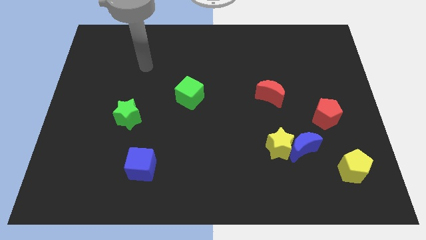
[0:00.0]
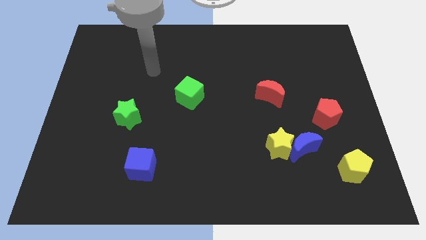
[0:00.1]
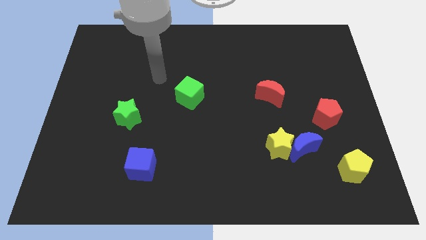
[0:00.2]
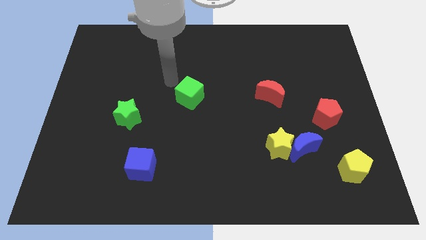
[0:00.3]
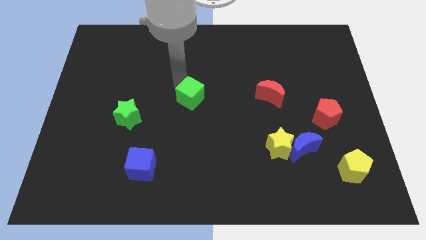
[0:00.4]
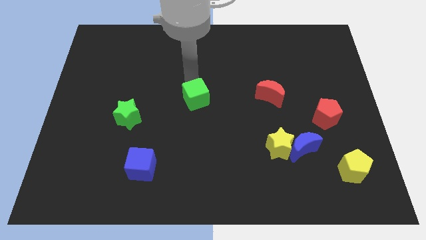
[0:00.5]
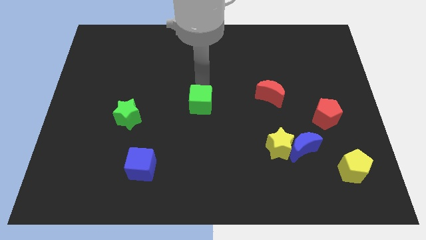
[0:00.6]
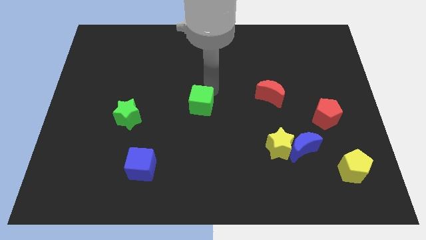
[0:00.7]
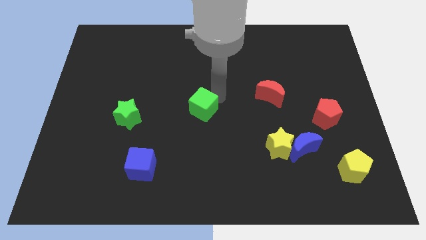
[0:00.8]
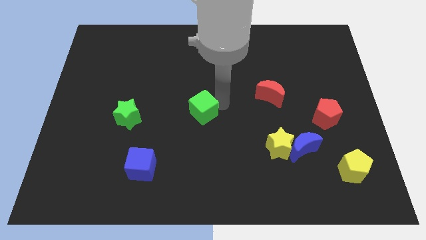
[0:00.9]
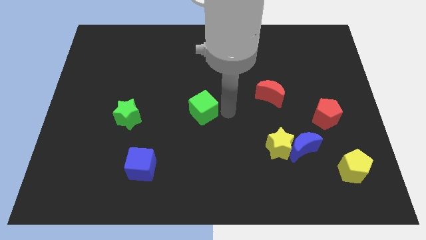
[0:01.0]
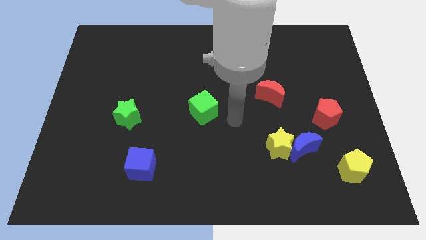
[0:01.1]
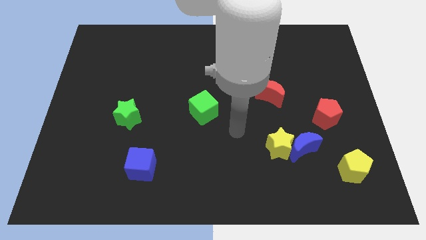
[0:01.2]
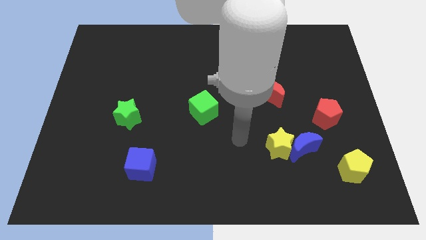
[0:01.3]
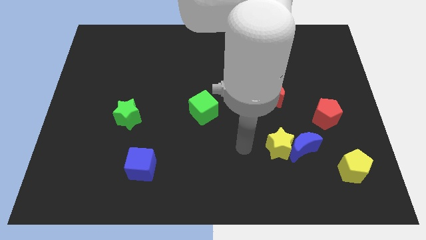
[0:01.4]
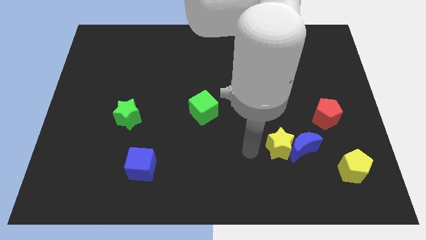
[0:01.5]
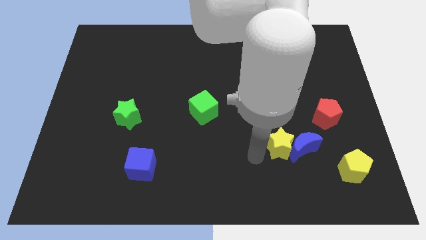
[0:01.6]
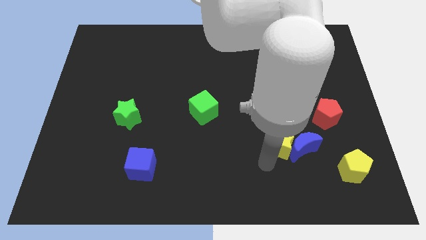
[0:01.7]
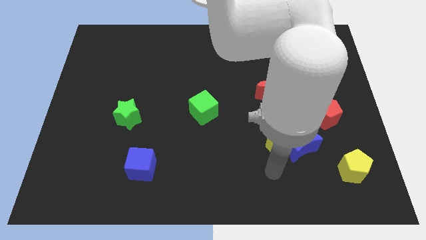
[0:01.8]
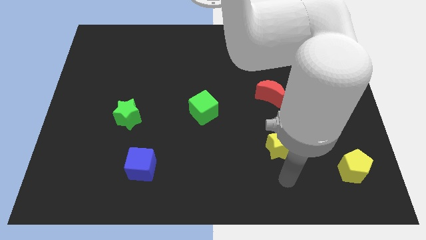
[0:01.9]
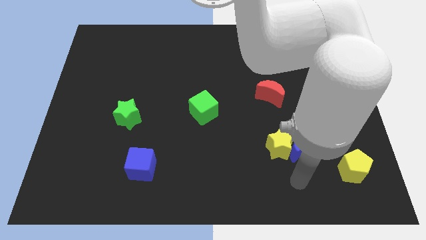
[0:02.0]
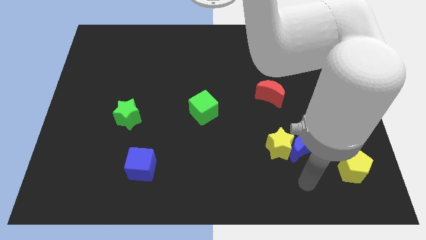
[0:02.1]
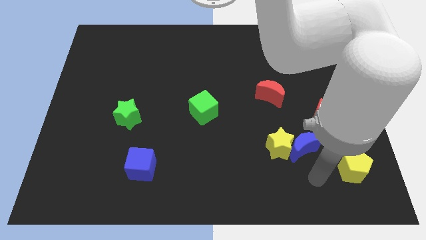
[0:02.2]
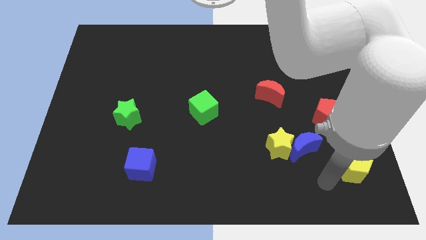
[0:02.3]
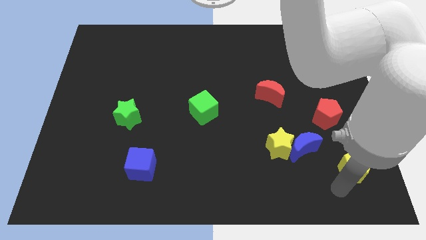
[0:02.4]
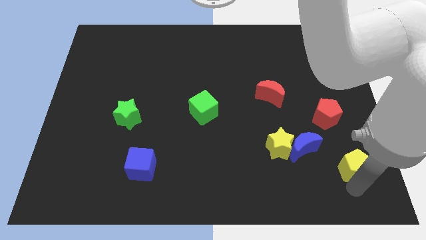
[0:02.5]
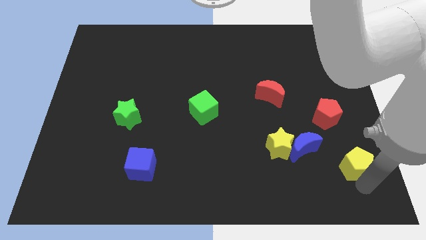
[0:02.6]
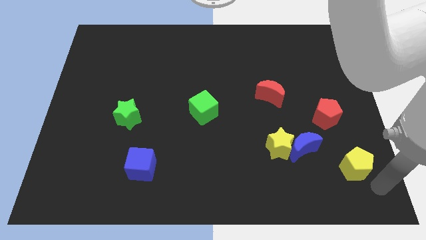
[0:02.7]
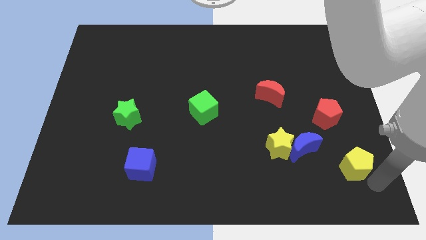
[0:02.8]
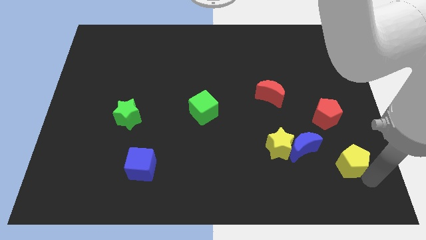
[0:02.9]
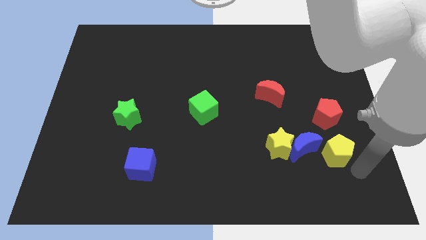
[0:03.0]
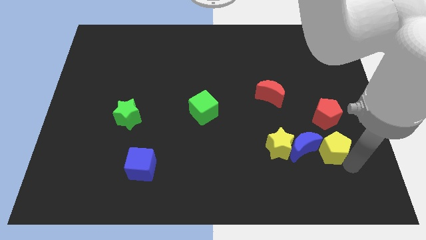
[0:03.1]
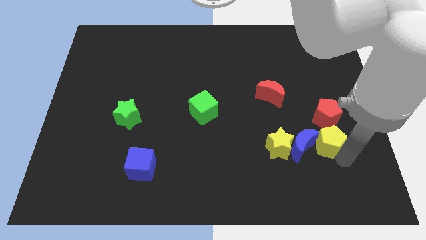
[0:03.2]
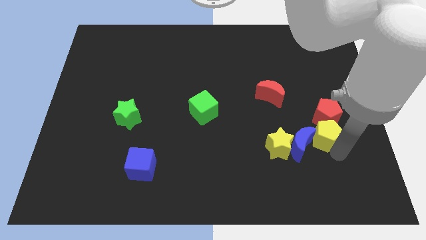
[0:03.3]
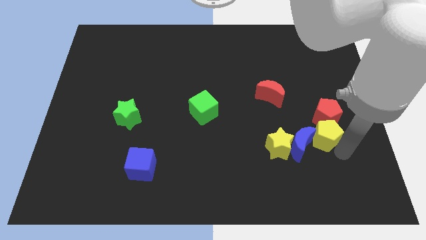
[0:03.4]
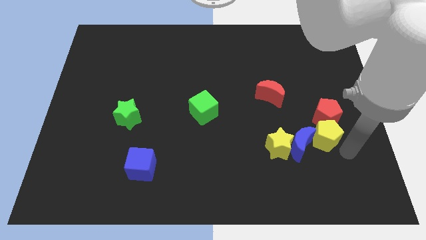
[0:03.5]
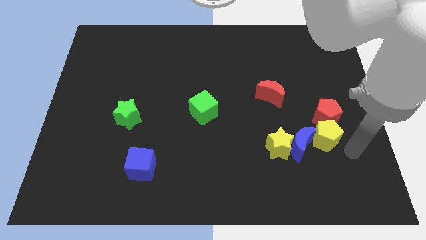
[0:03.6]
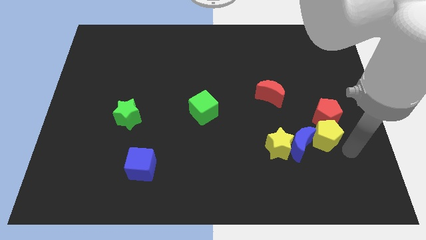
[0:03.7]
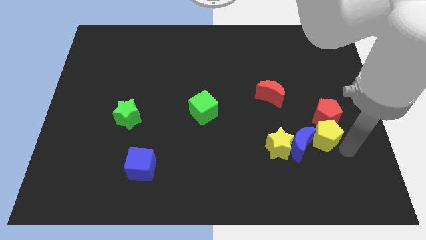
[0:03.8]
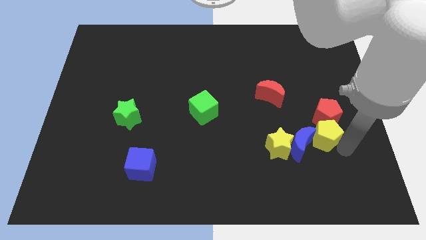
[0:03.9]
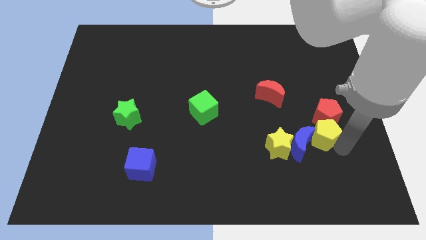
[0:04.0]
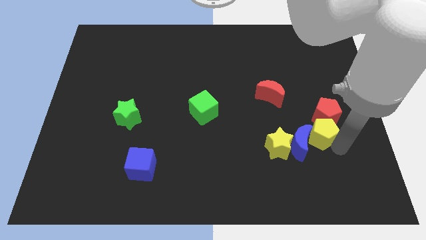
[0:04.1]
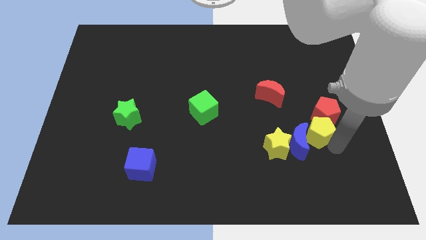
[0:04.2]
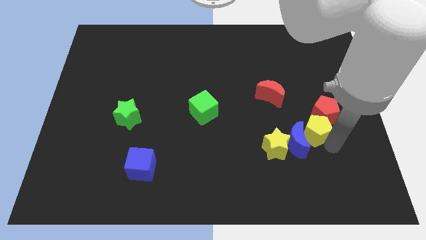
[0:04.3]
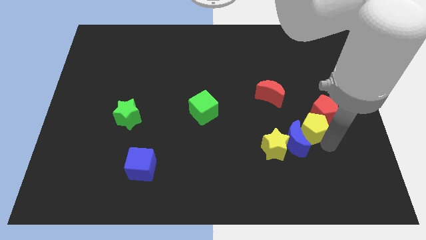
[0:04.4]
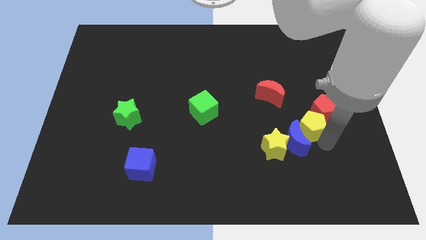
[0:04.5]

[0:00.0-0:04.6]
slide the yellow pentagon to the left side of the red pentagon

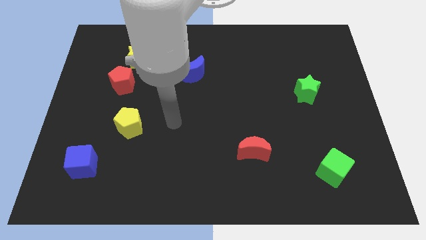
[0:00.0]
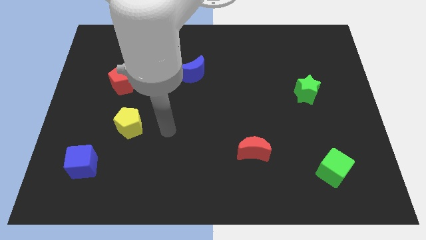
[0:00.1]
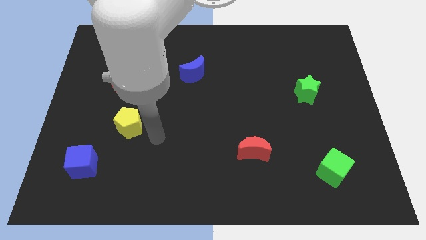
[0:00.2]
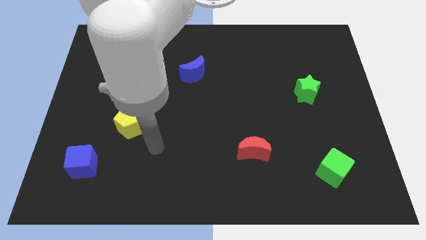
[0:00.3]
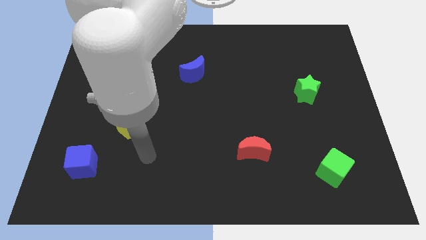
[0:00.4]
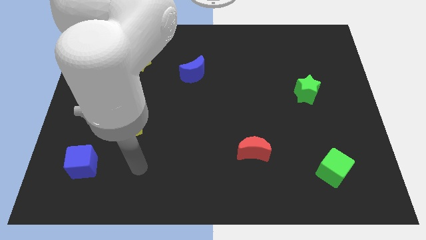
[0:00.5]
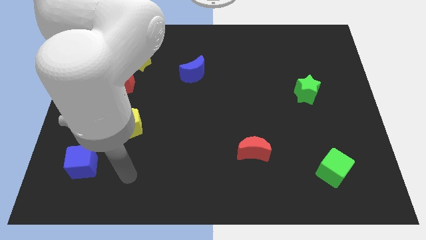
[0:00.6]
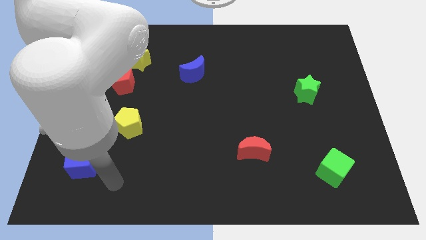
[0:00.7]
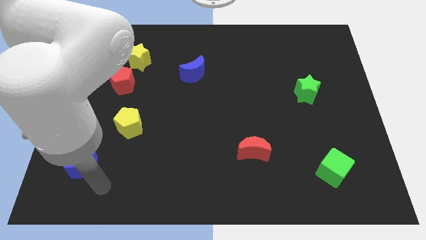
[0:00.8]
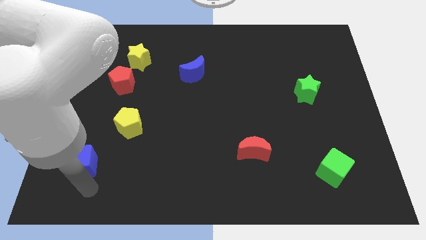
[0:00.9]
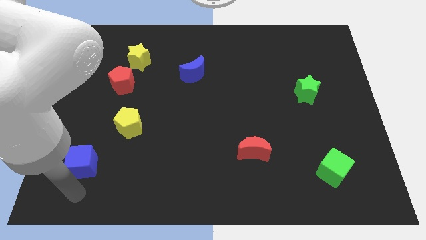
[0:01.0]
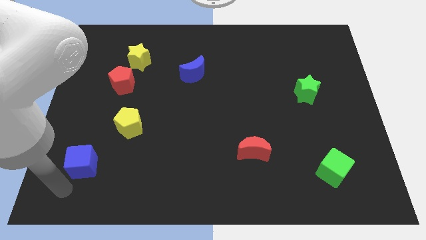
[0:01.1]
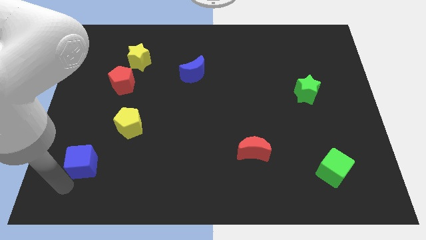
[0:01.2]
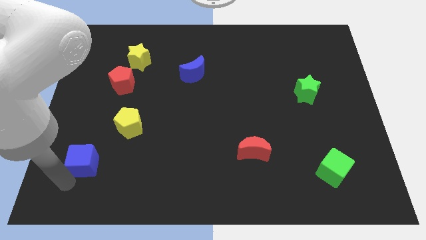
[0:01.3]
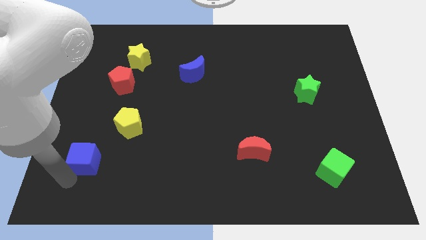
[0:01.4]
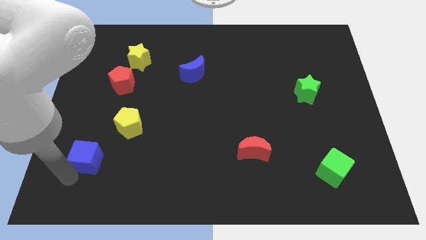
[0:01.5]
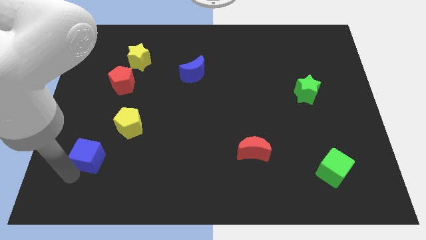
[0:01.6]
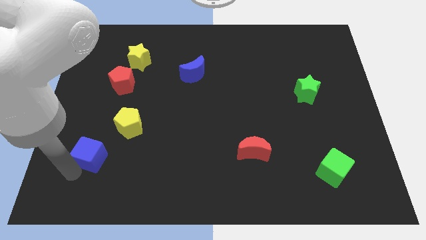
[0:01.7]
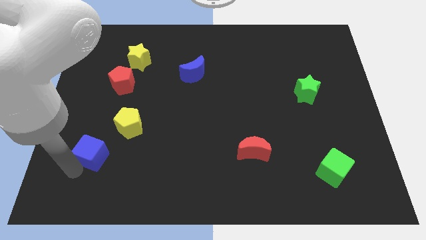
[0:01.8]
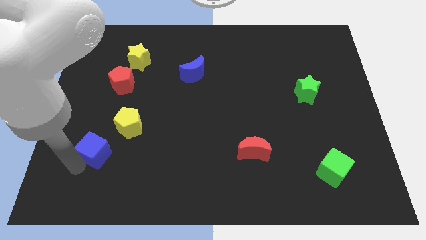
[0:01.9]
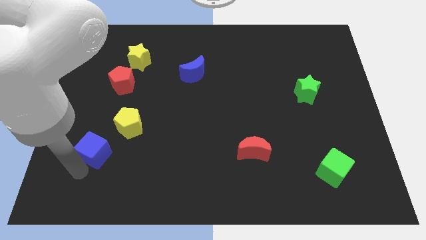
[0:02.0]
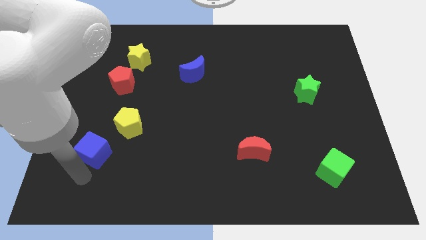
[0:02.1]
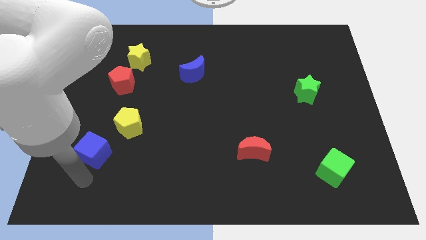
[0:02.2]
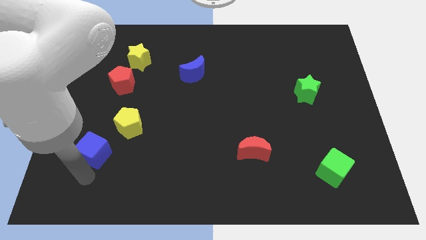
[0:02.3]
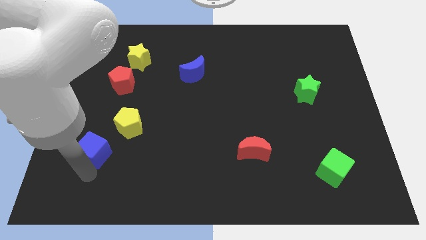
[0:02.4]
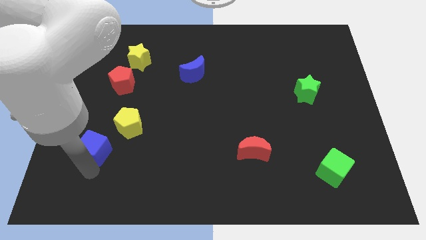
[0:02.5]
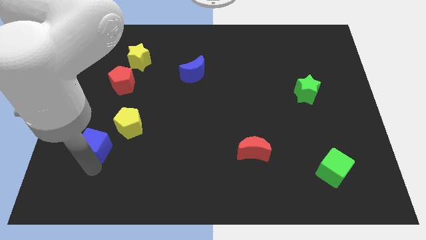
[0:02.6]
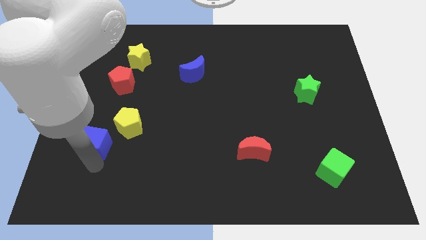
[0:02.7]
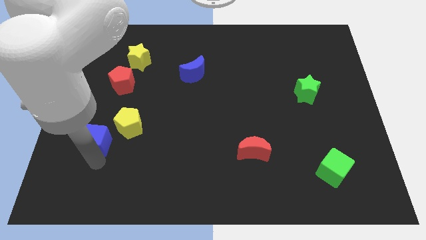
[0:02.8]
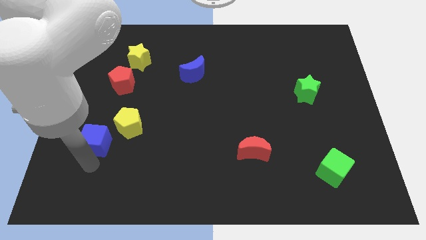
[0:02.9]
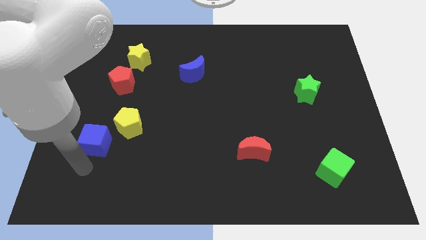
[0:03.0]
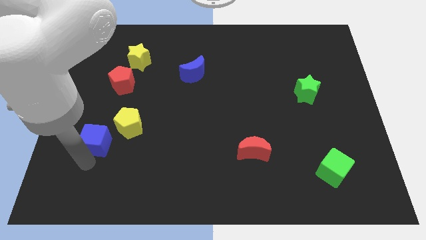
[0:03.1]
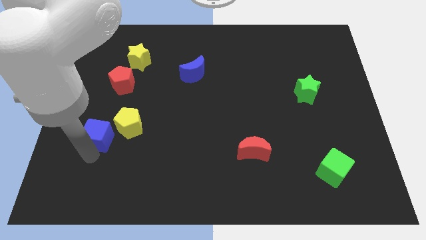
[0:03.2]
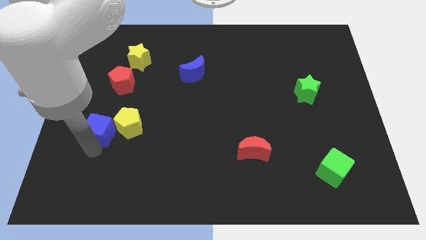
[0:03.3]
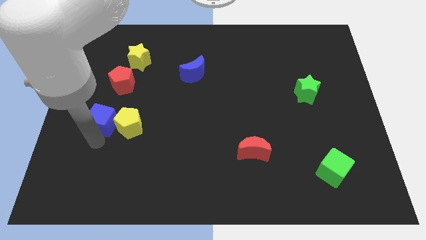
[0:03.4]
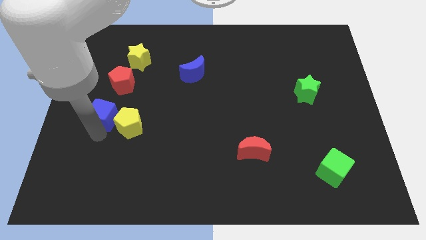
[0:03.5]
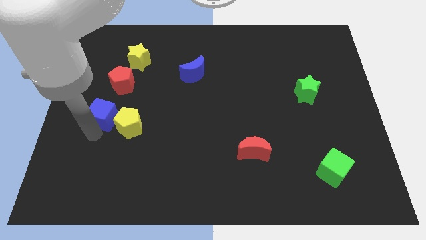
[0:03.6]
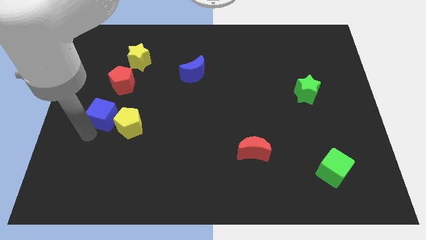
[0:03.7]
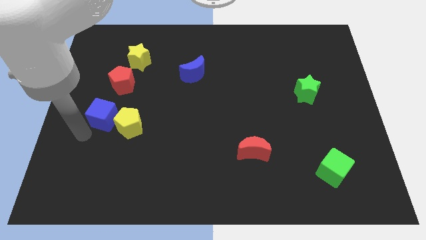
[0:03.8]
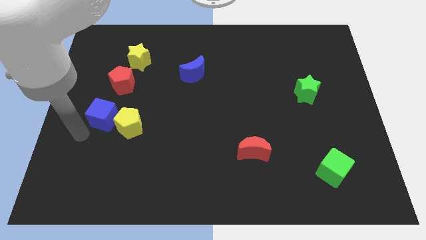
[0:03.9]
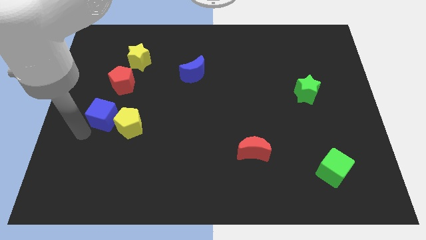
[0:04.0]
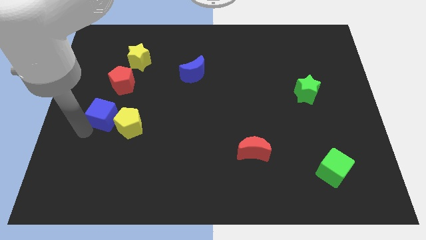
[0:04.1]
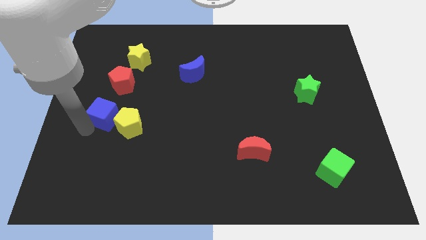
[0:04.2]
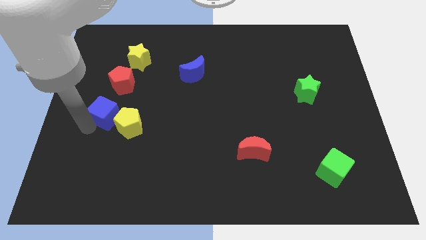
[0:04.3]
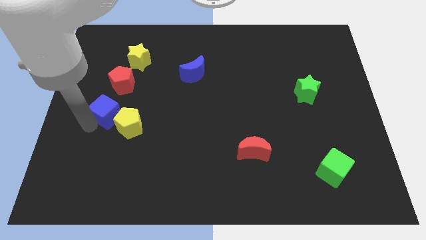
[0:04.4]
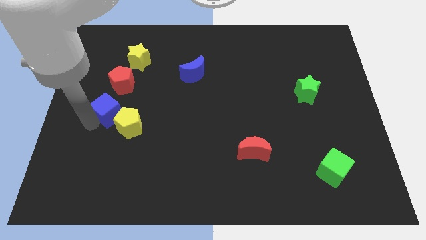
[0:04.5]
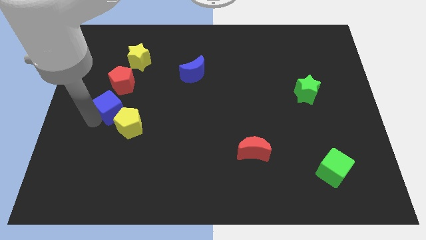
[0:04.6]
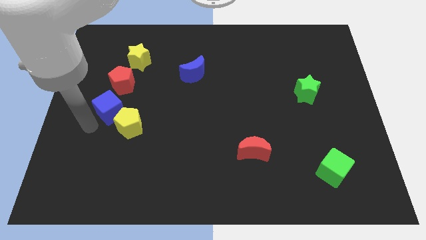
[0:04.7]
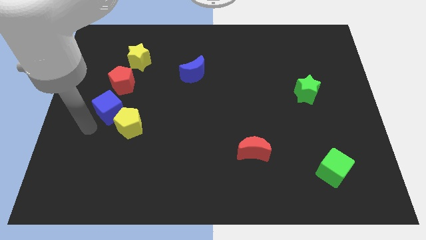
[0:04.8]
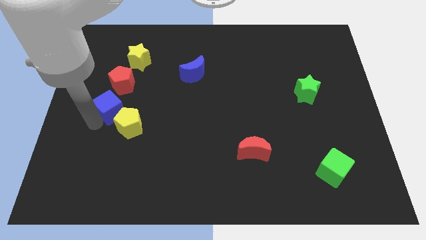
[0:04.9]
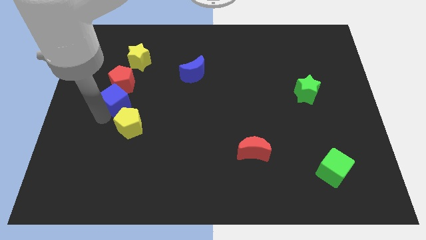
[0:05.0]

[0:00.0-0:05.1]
move the blue cube to the top of the yellow pentagon
